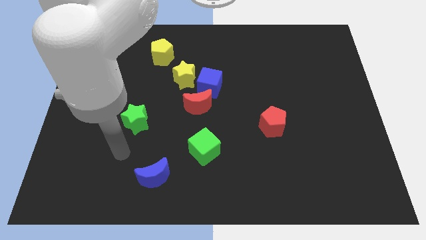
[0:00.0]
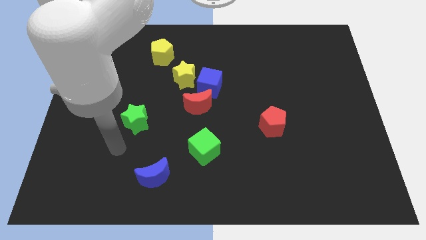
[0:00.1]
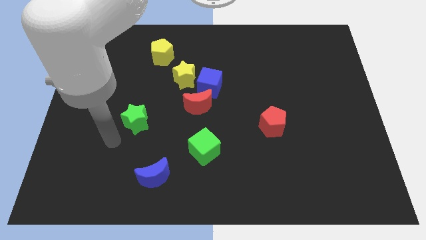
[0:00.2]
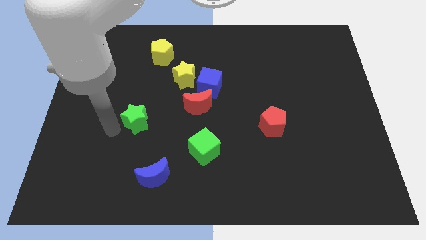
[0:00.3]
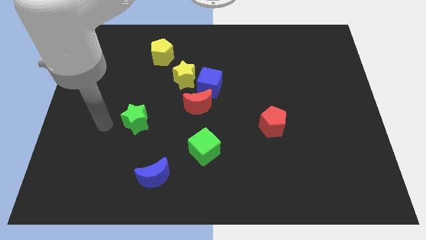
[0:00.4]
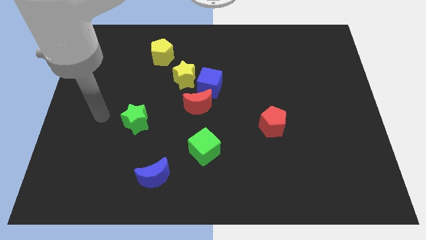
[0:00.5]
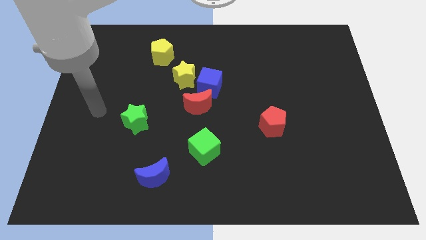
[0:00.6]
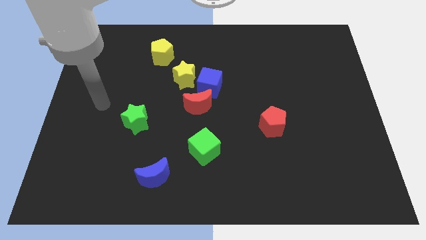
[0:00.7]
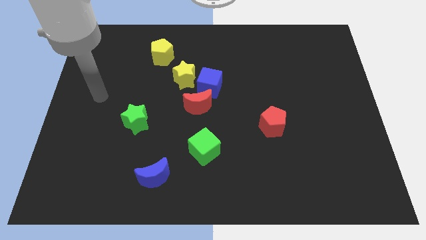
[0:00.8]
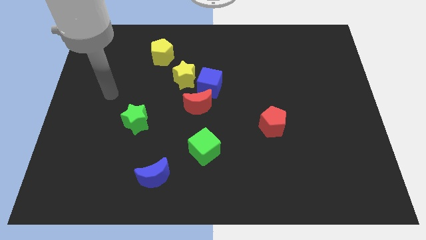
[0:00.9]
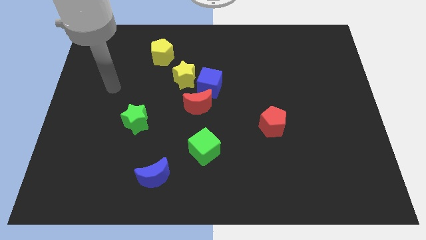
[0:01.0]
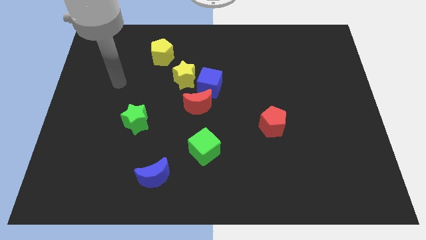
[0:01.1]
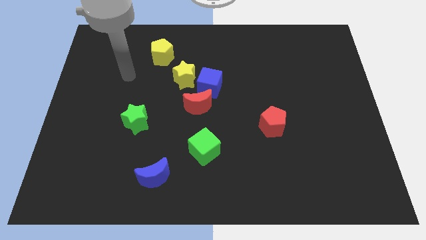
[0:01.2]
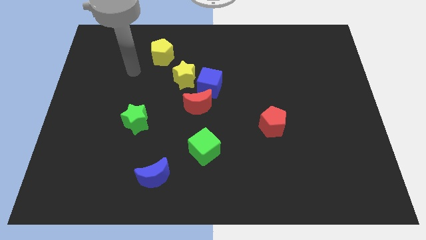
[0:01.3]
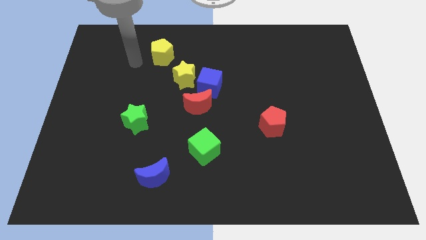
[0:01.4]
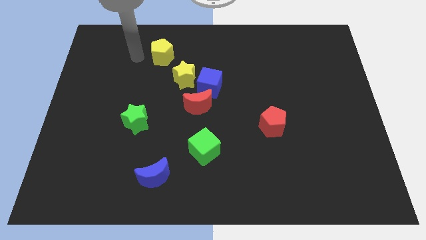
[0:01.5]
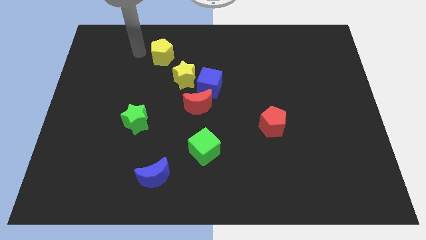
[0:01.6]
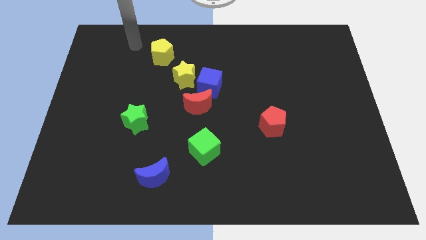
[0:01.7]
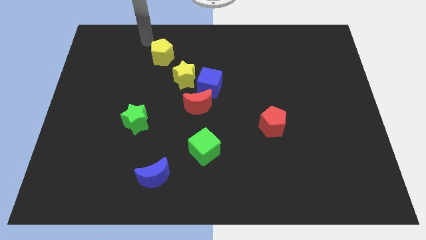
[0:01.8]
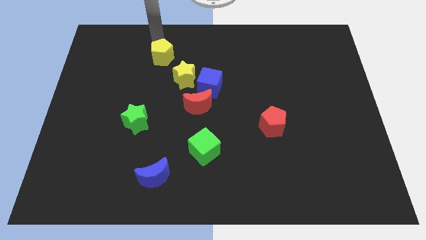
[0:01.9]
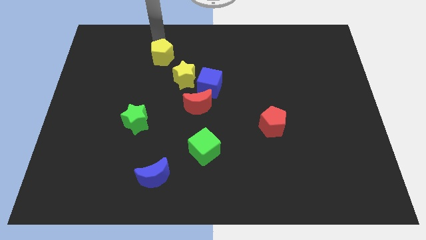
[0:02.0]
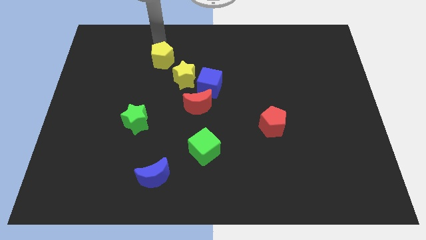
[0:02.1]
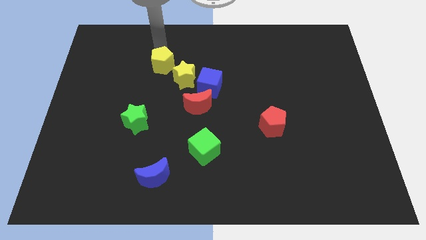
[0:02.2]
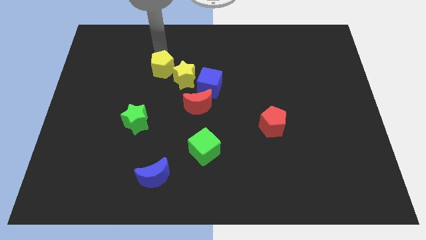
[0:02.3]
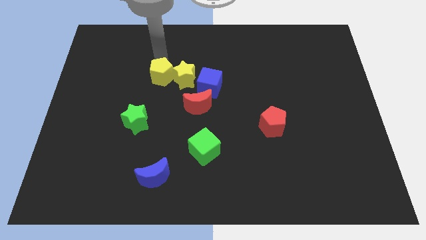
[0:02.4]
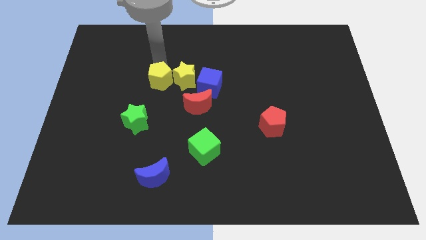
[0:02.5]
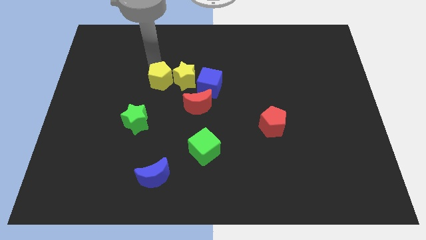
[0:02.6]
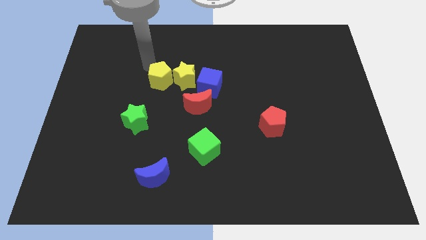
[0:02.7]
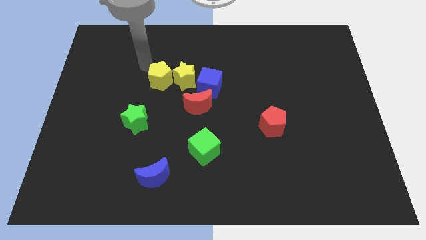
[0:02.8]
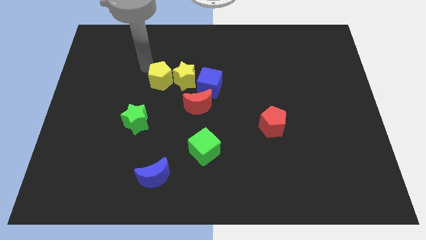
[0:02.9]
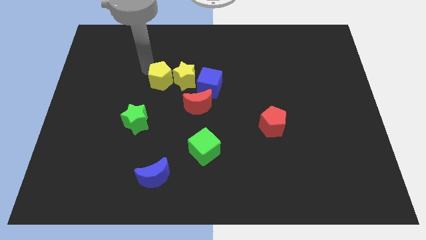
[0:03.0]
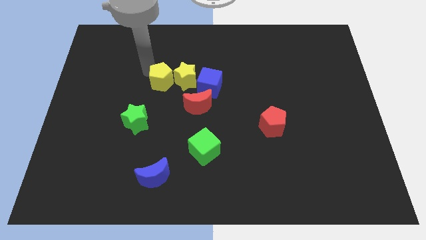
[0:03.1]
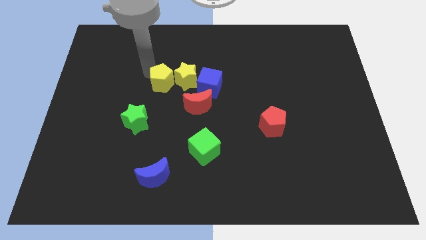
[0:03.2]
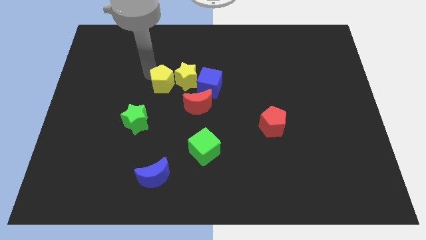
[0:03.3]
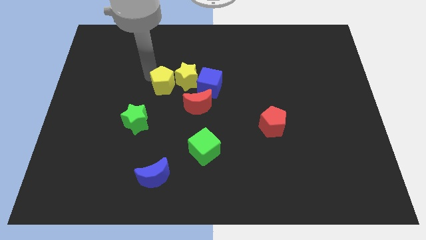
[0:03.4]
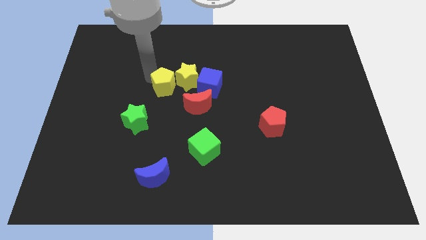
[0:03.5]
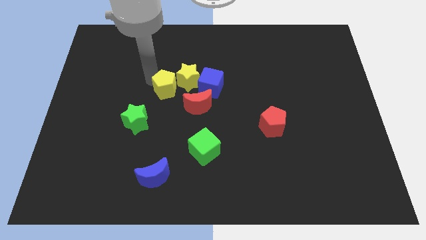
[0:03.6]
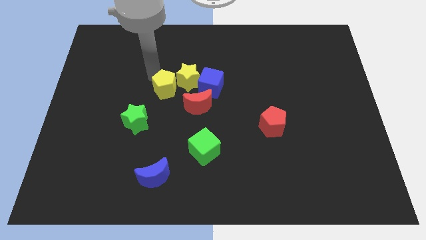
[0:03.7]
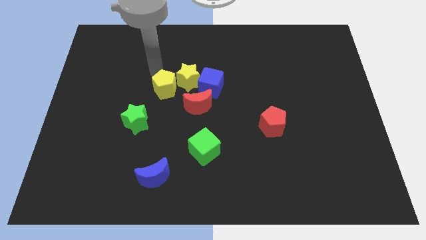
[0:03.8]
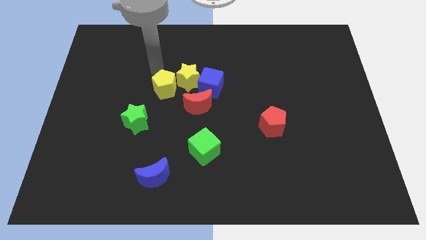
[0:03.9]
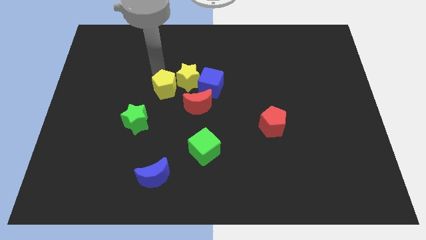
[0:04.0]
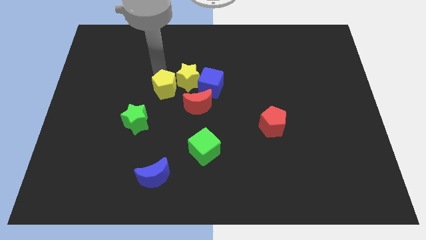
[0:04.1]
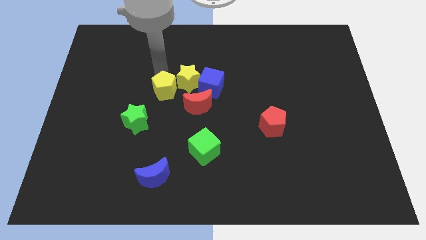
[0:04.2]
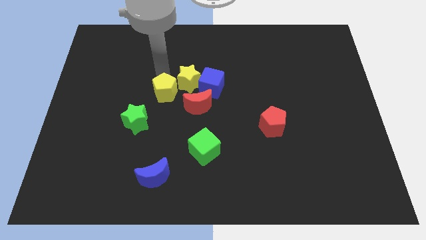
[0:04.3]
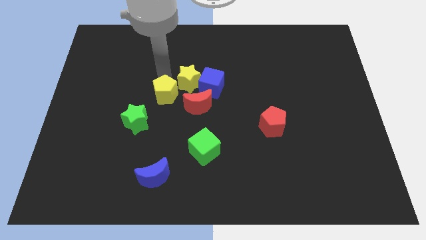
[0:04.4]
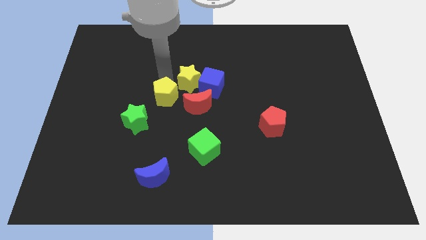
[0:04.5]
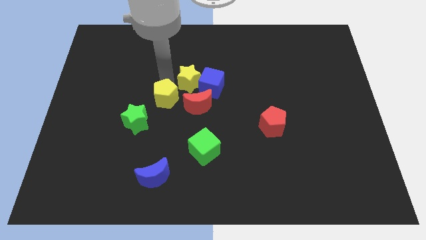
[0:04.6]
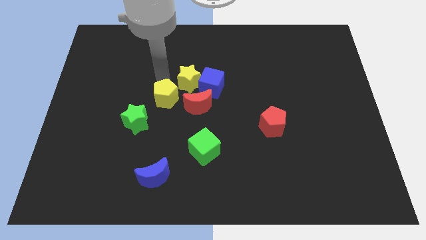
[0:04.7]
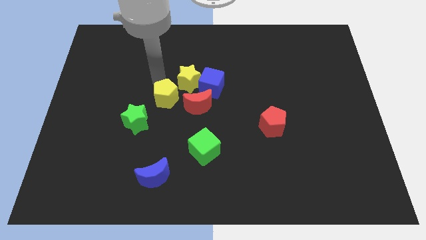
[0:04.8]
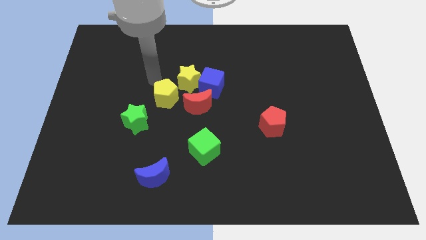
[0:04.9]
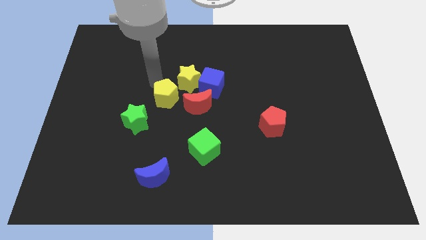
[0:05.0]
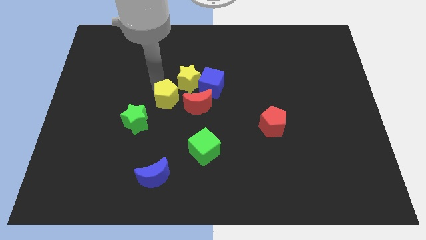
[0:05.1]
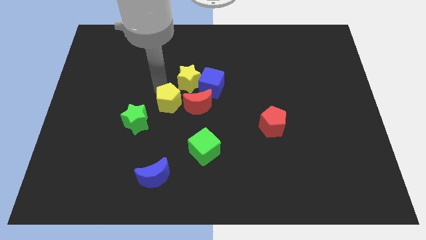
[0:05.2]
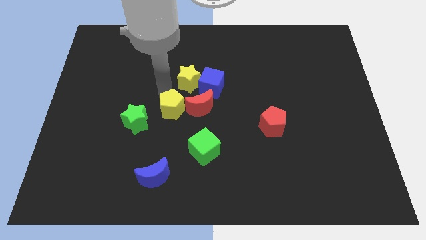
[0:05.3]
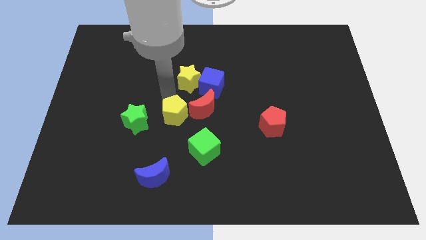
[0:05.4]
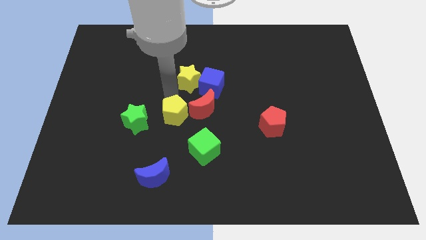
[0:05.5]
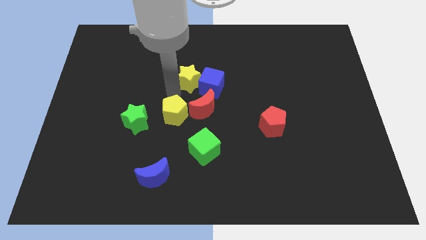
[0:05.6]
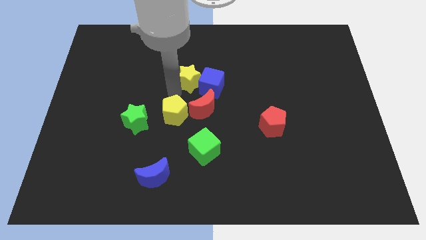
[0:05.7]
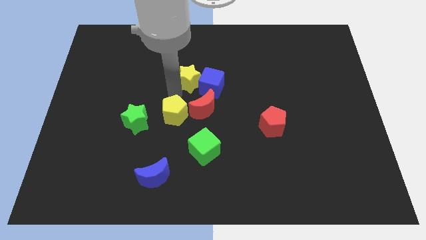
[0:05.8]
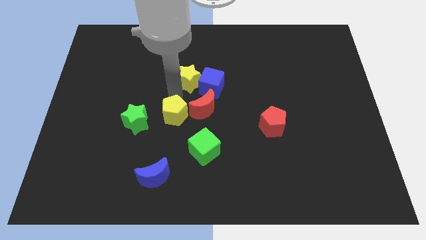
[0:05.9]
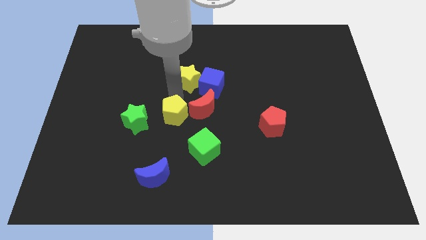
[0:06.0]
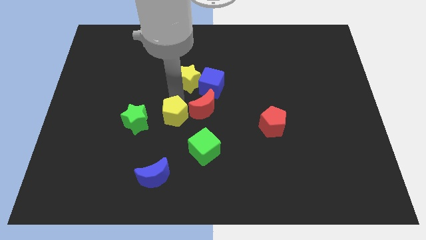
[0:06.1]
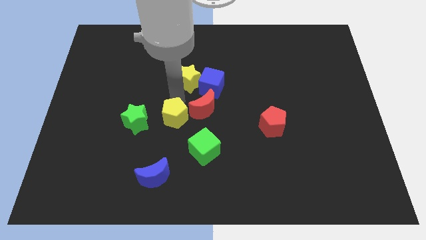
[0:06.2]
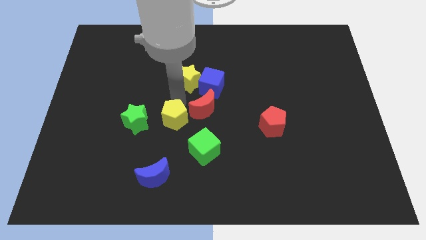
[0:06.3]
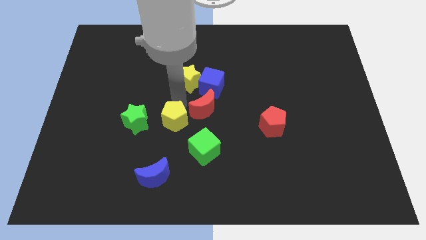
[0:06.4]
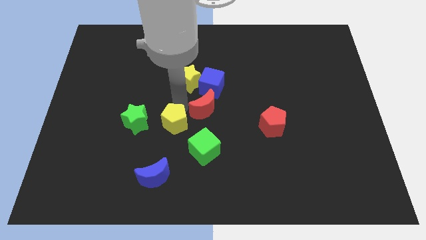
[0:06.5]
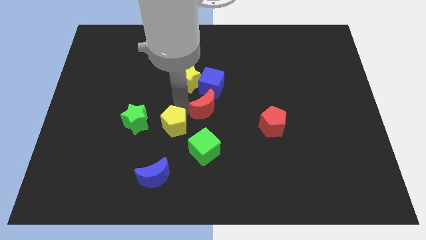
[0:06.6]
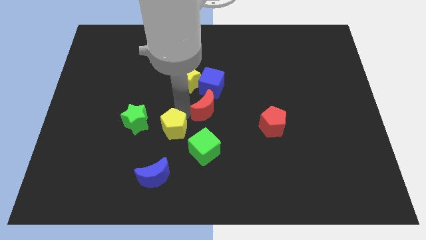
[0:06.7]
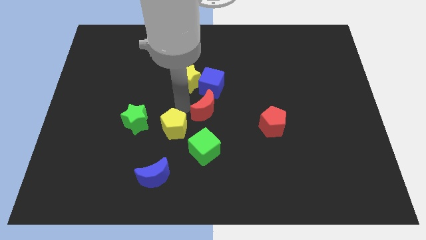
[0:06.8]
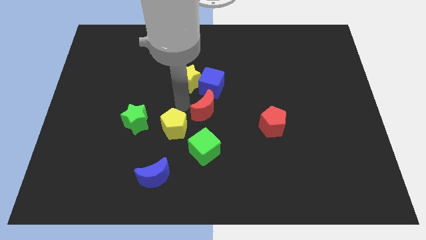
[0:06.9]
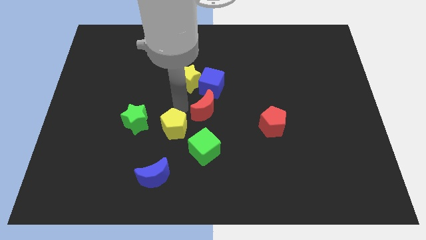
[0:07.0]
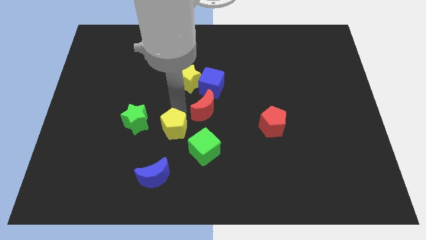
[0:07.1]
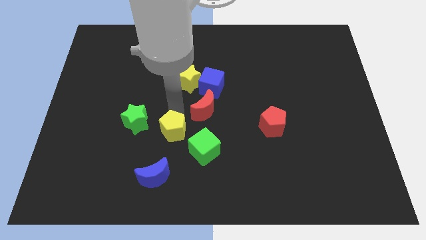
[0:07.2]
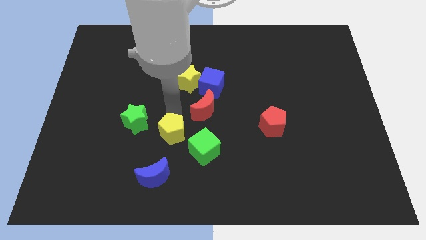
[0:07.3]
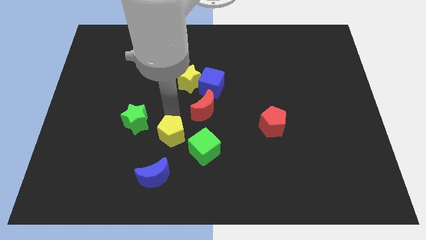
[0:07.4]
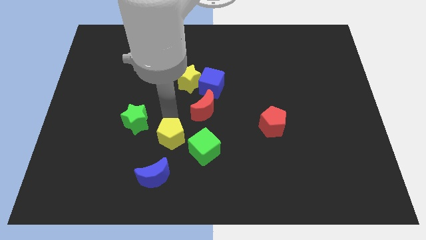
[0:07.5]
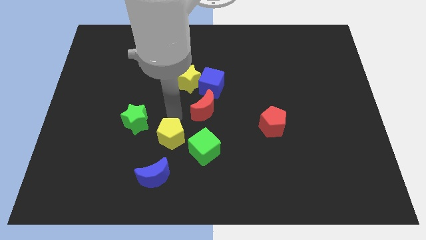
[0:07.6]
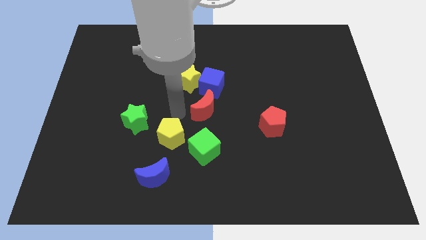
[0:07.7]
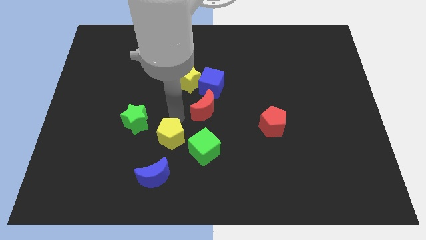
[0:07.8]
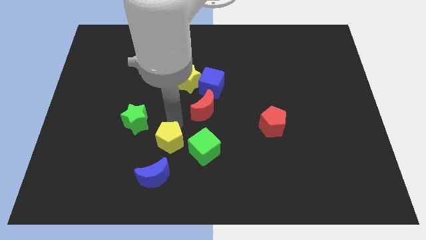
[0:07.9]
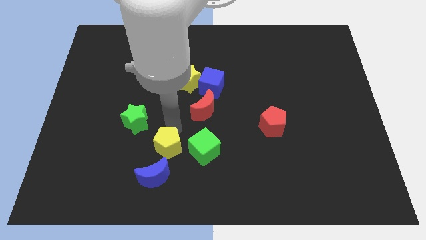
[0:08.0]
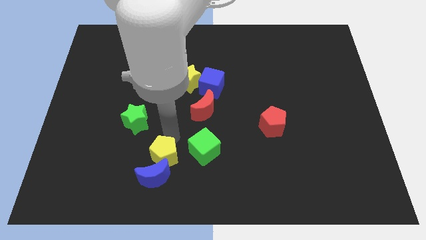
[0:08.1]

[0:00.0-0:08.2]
push the yellow pentagon to the blue moon
